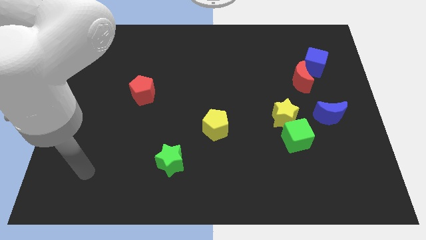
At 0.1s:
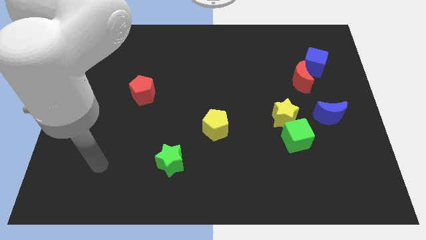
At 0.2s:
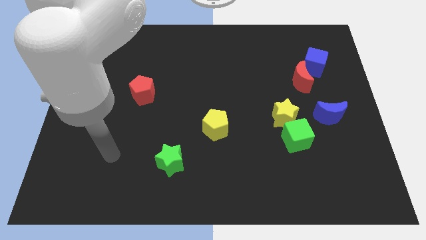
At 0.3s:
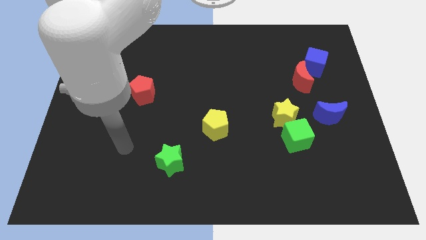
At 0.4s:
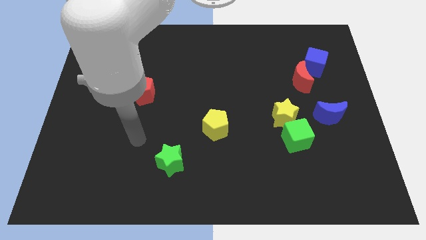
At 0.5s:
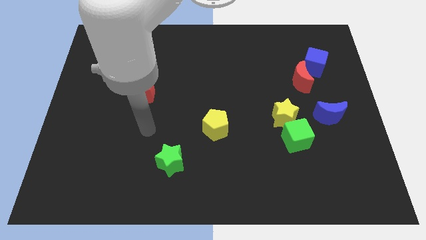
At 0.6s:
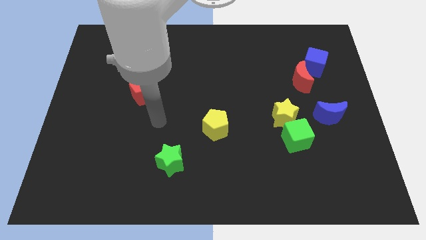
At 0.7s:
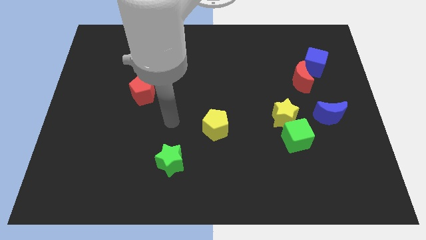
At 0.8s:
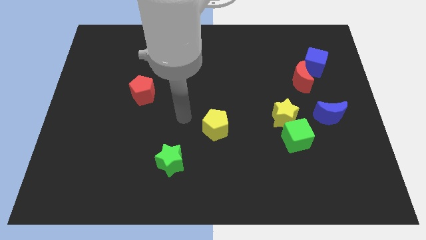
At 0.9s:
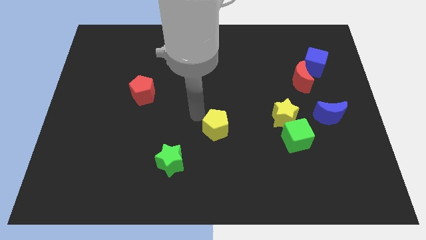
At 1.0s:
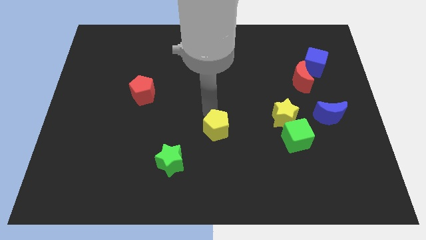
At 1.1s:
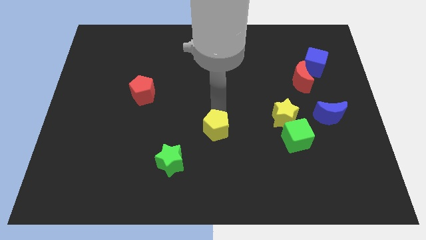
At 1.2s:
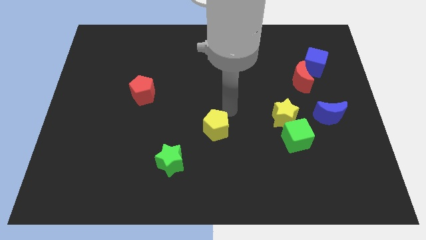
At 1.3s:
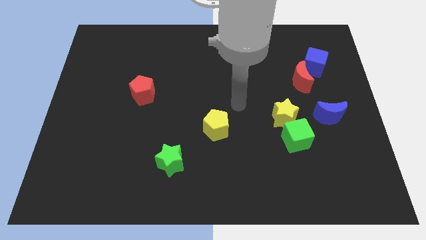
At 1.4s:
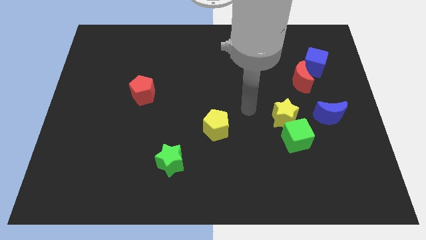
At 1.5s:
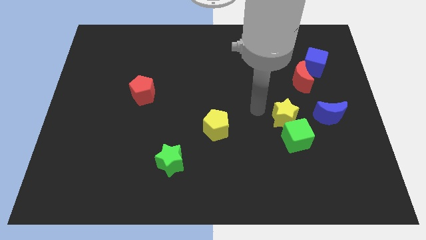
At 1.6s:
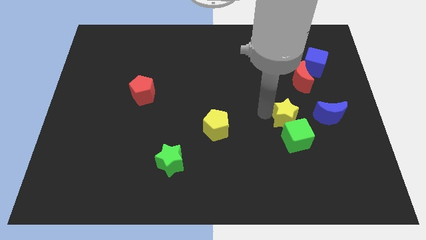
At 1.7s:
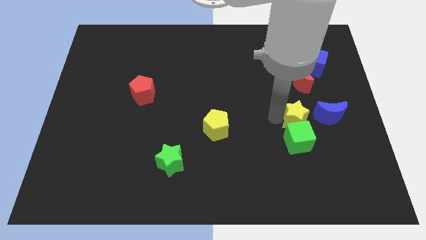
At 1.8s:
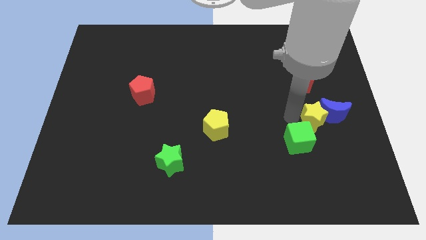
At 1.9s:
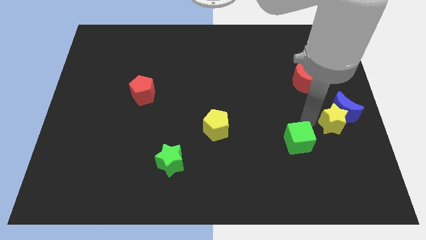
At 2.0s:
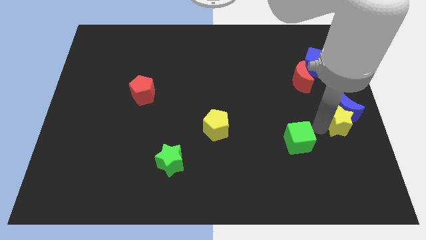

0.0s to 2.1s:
move the green cube away from the yellow star

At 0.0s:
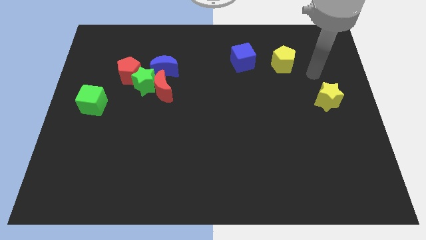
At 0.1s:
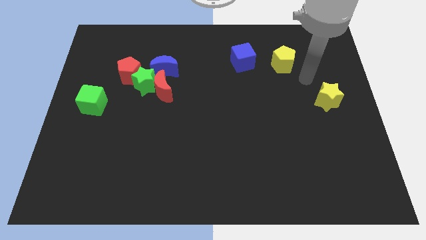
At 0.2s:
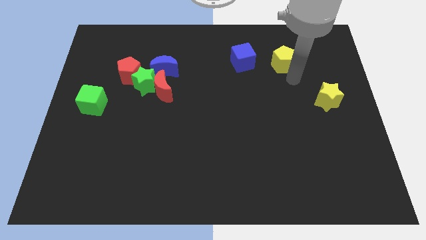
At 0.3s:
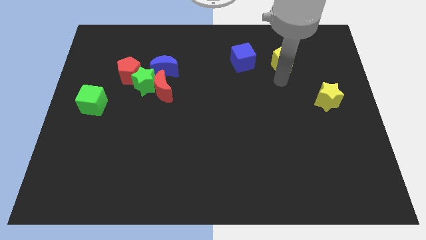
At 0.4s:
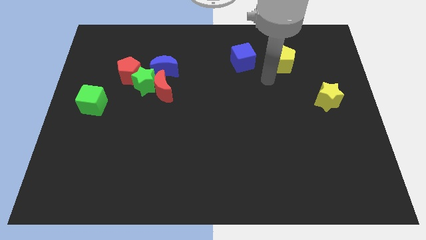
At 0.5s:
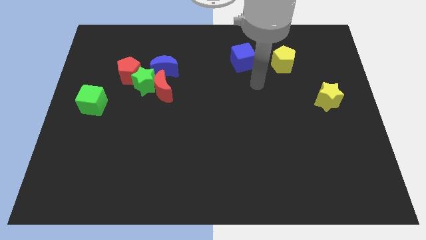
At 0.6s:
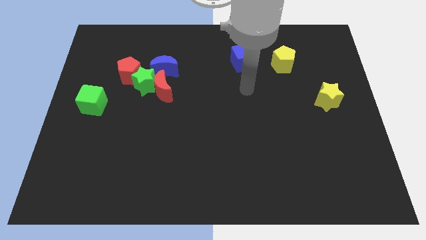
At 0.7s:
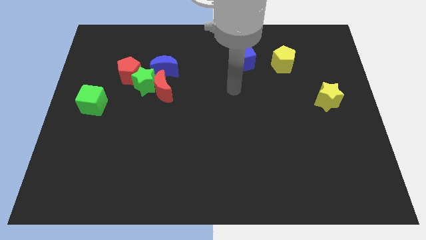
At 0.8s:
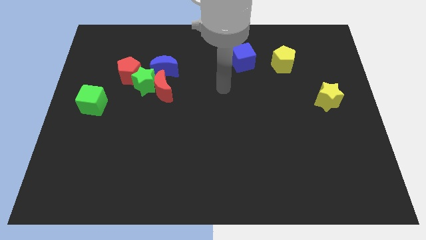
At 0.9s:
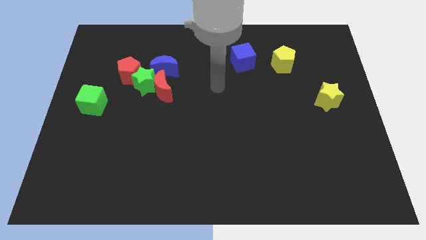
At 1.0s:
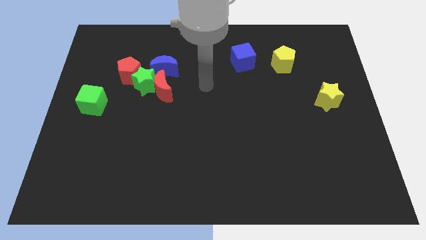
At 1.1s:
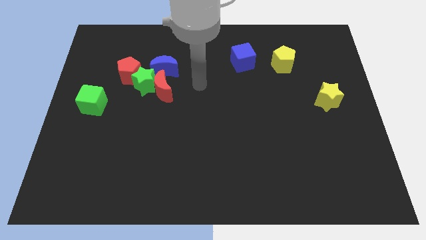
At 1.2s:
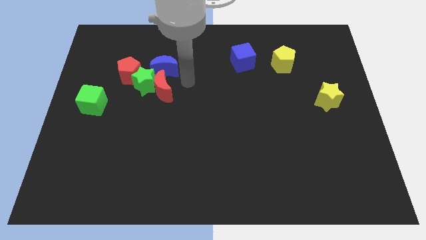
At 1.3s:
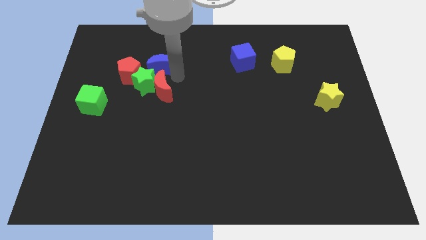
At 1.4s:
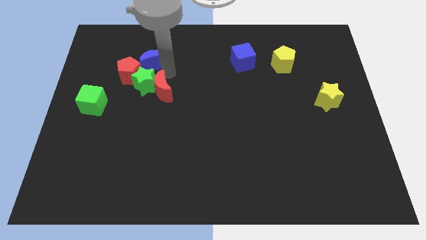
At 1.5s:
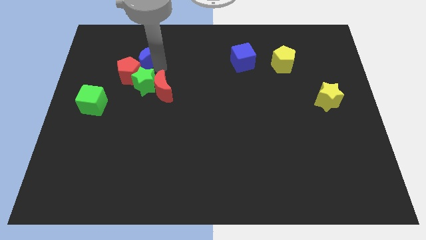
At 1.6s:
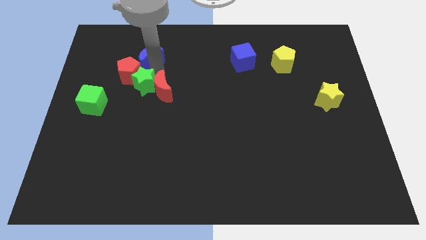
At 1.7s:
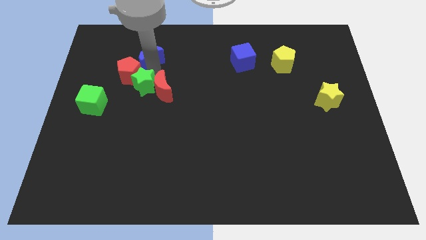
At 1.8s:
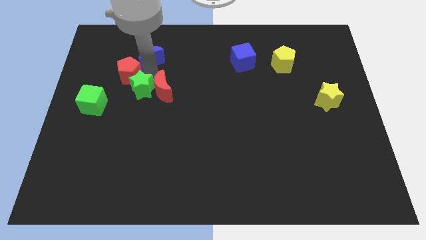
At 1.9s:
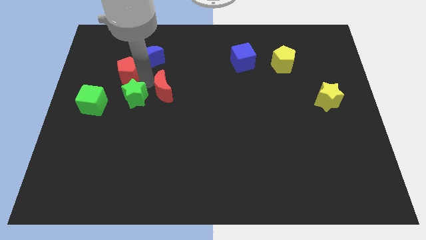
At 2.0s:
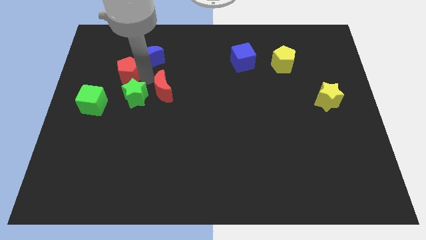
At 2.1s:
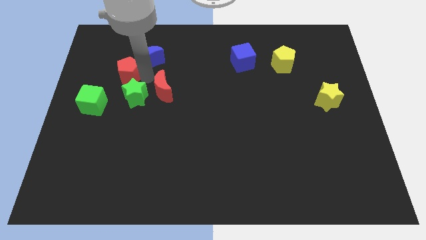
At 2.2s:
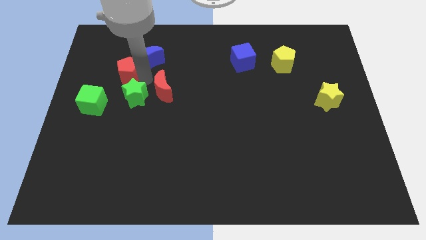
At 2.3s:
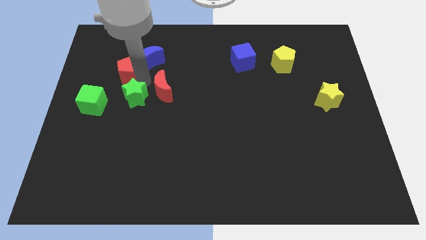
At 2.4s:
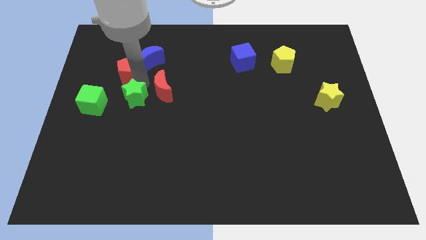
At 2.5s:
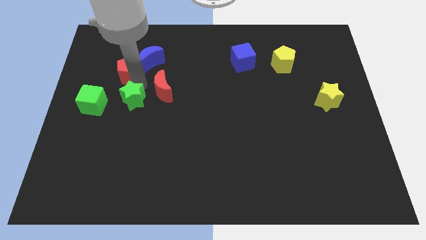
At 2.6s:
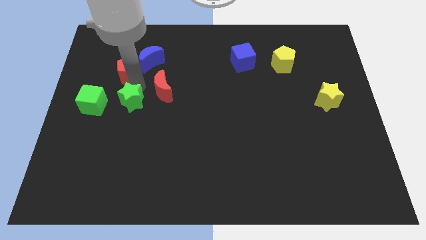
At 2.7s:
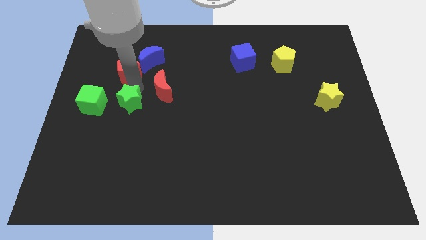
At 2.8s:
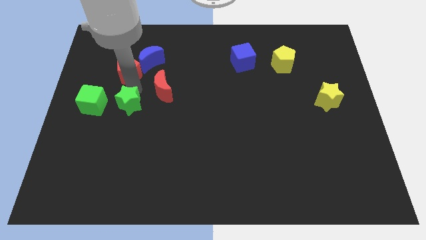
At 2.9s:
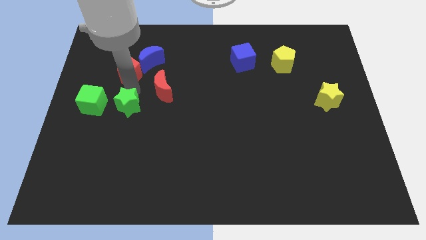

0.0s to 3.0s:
move the green star away from the clump

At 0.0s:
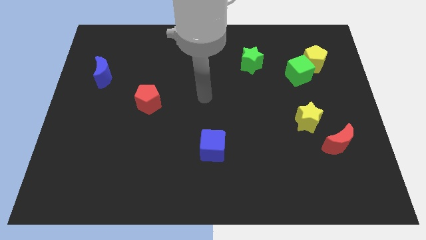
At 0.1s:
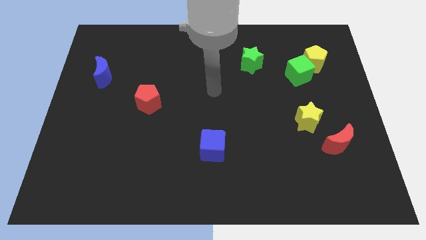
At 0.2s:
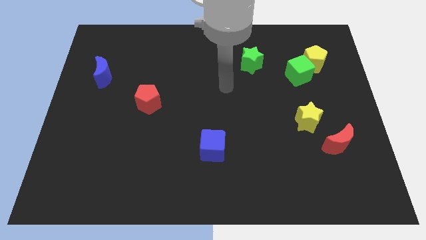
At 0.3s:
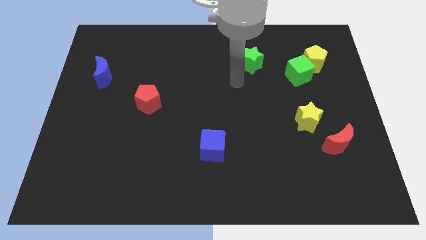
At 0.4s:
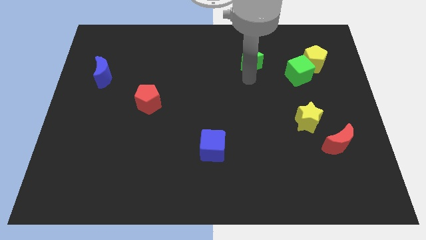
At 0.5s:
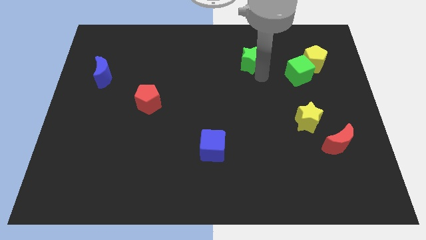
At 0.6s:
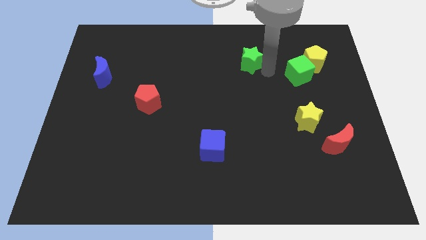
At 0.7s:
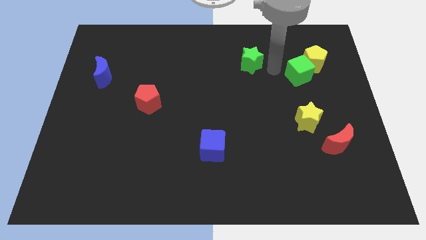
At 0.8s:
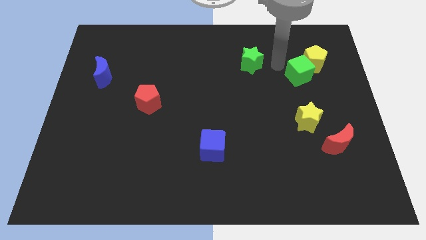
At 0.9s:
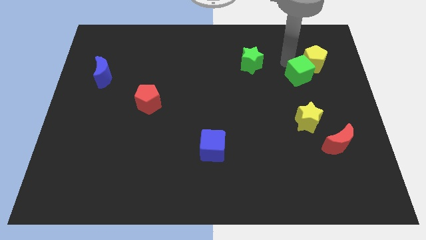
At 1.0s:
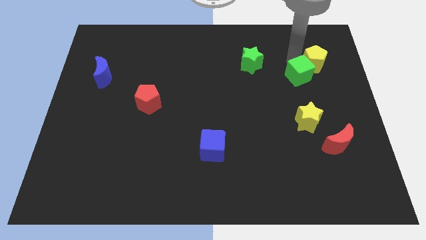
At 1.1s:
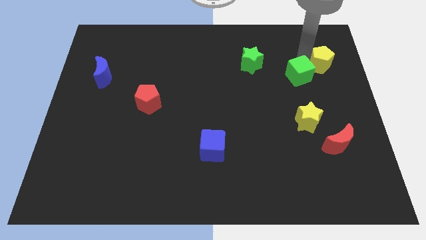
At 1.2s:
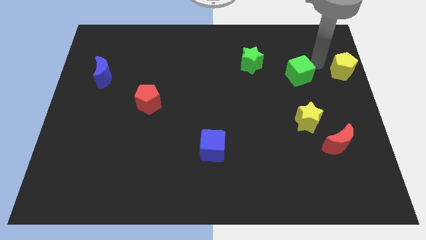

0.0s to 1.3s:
move the green cube away from the yellow pentagon

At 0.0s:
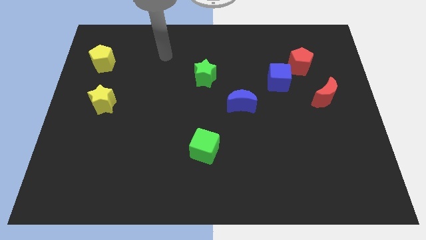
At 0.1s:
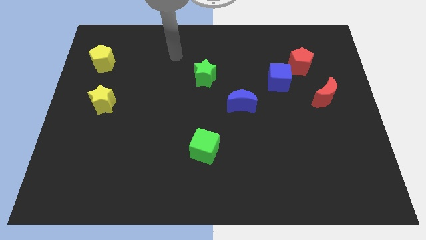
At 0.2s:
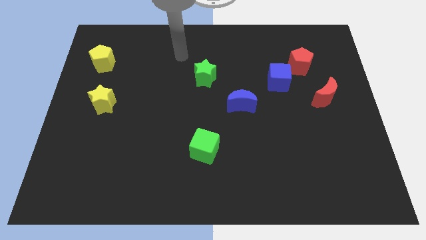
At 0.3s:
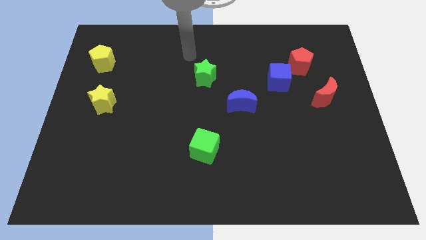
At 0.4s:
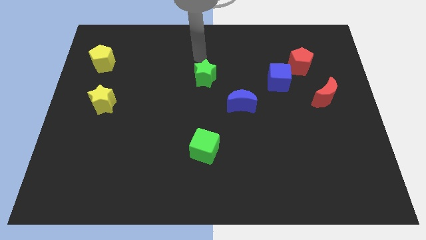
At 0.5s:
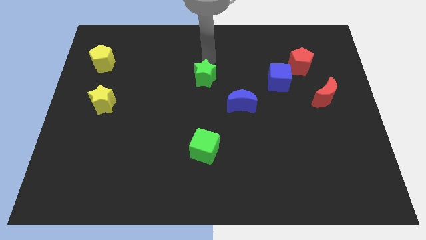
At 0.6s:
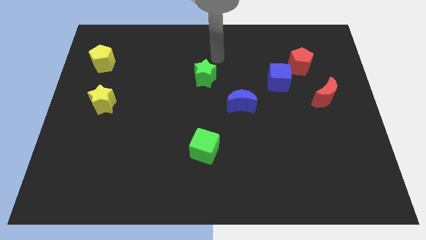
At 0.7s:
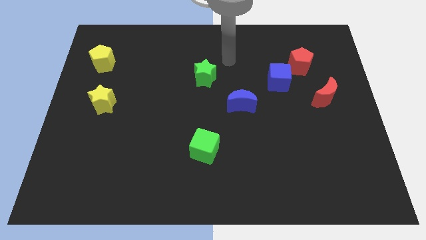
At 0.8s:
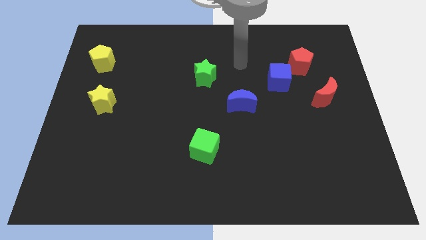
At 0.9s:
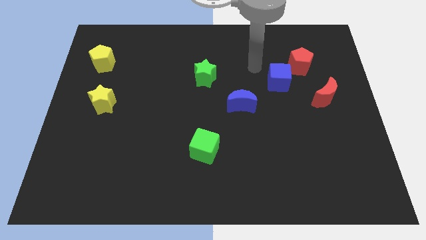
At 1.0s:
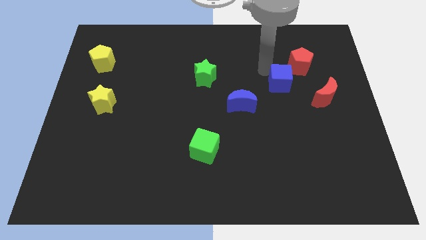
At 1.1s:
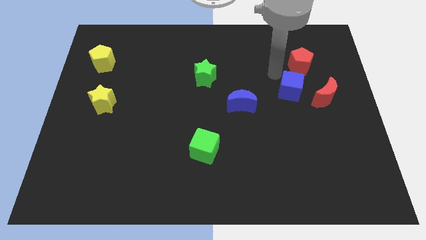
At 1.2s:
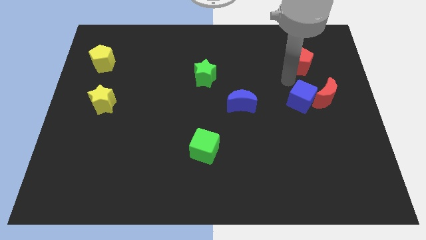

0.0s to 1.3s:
move the red pentagon away from the blue cube

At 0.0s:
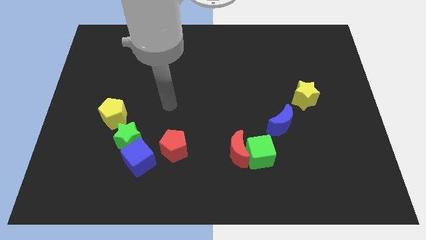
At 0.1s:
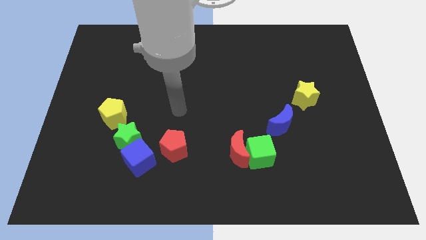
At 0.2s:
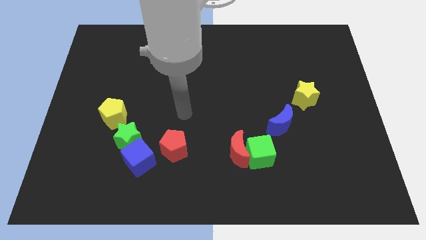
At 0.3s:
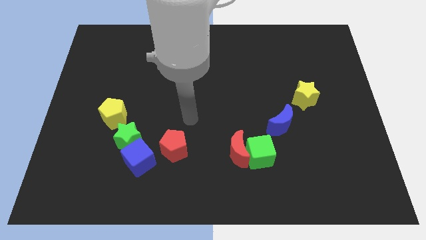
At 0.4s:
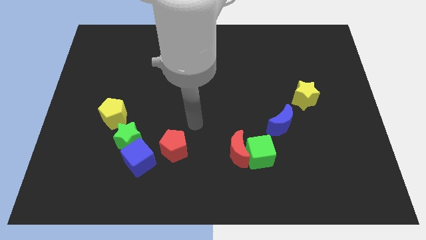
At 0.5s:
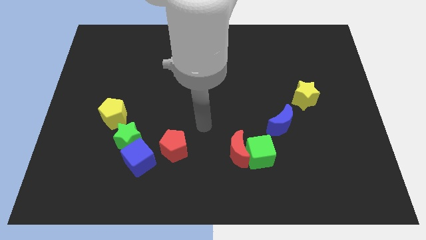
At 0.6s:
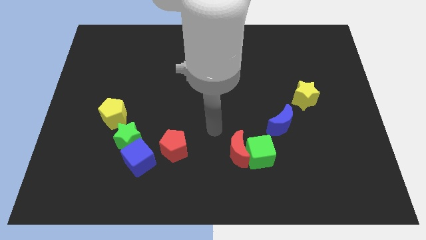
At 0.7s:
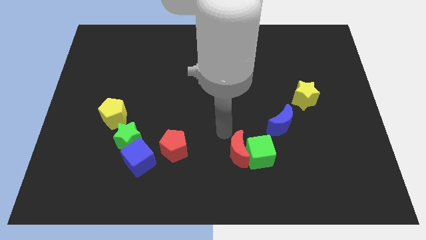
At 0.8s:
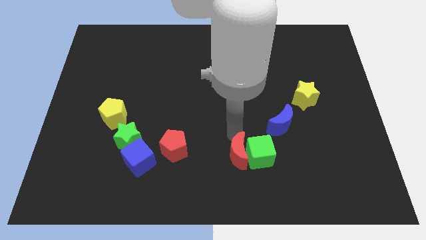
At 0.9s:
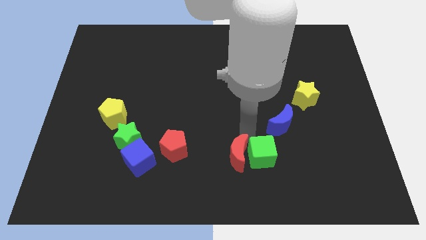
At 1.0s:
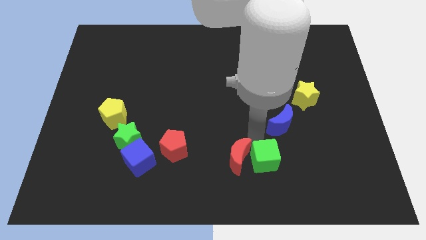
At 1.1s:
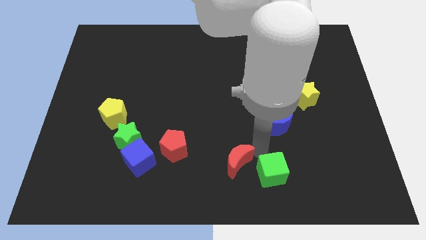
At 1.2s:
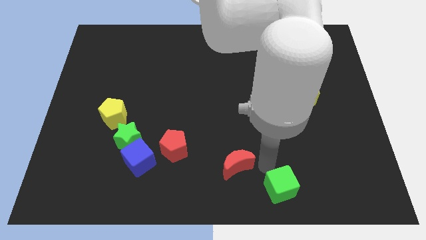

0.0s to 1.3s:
separate the red moon from the green cube

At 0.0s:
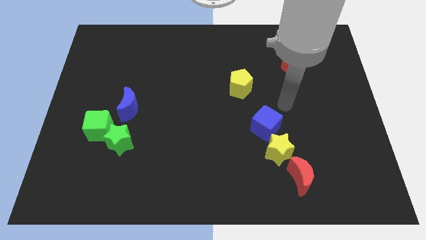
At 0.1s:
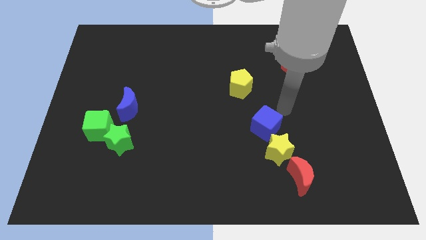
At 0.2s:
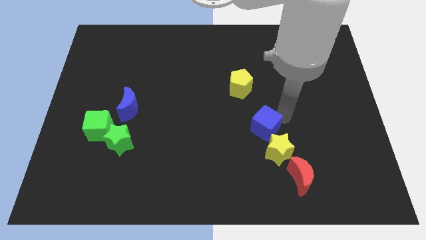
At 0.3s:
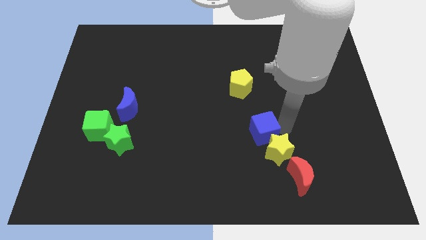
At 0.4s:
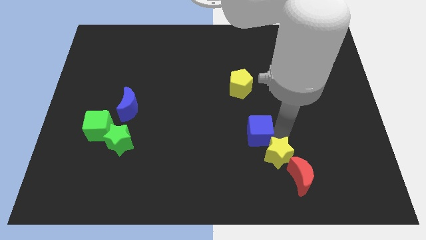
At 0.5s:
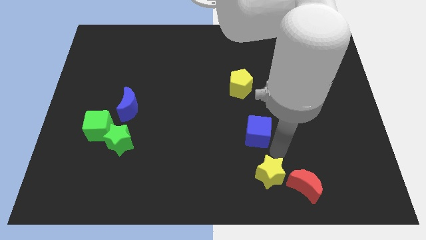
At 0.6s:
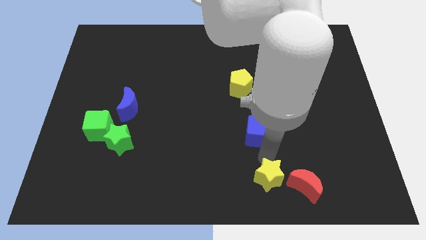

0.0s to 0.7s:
move the blue cube away from the yellow star
